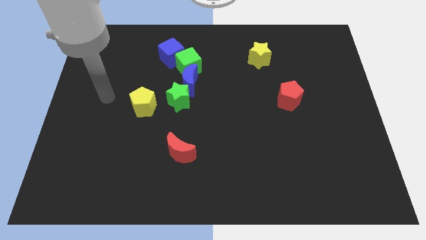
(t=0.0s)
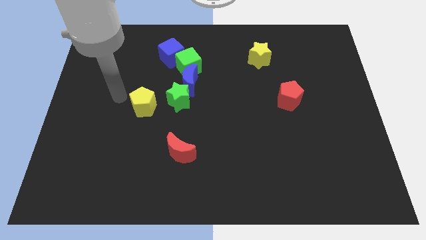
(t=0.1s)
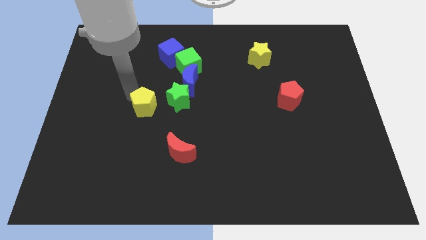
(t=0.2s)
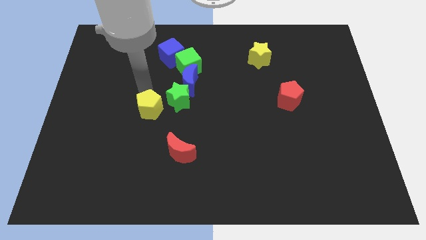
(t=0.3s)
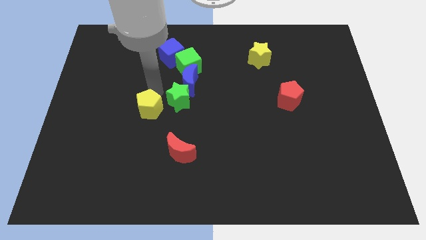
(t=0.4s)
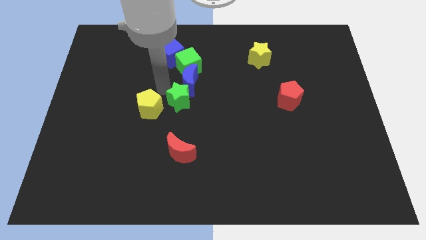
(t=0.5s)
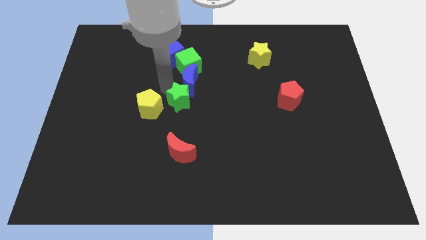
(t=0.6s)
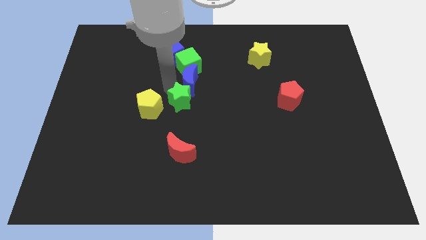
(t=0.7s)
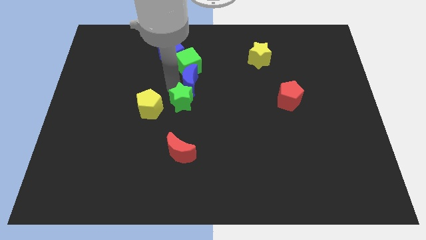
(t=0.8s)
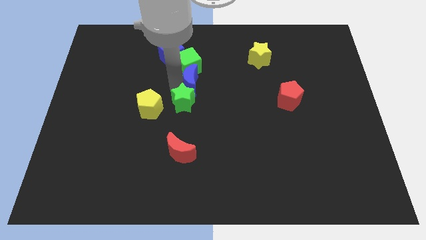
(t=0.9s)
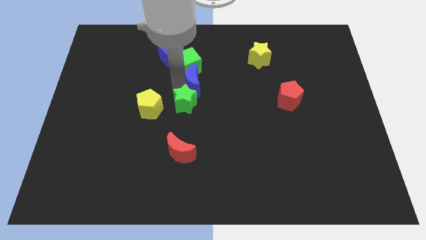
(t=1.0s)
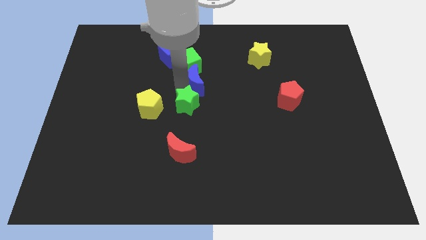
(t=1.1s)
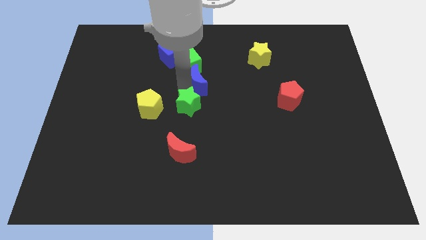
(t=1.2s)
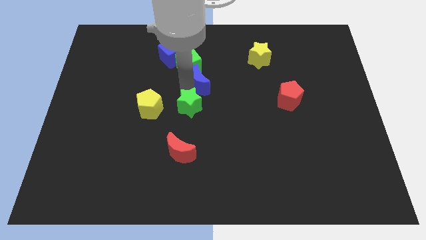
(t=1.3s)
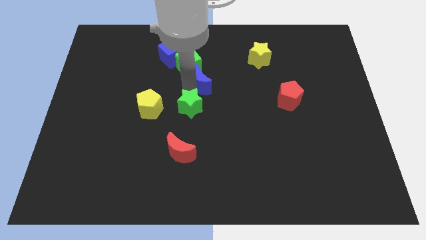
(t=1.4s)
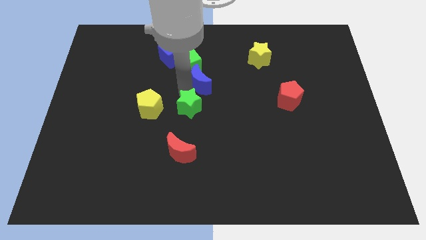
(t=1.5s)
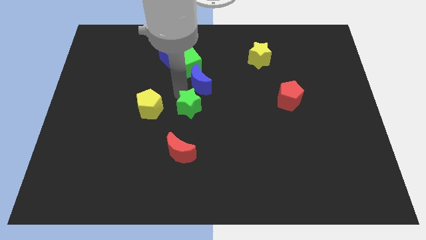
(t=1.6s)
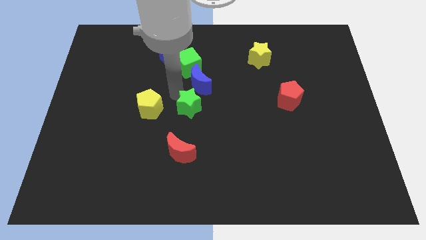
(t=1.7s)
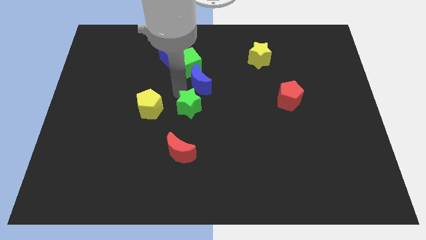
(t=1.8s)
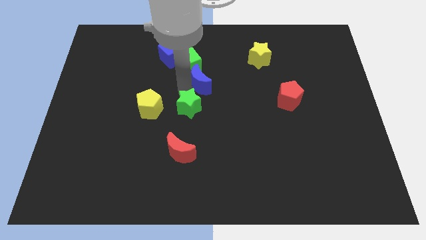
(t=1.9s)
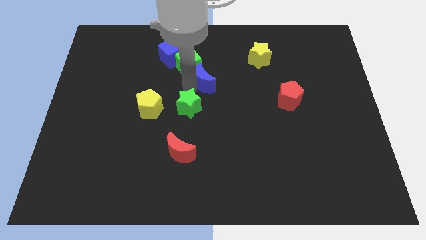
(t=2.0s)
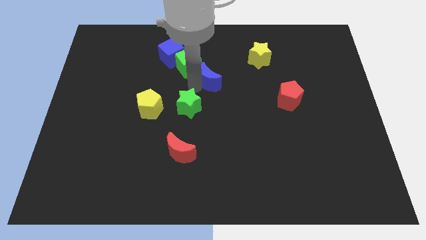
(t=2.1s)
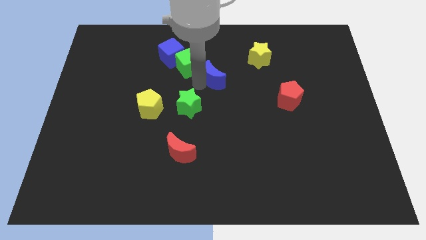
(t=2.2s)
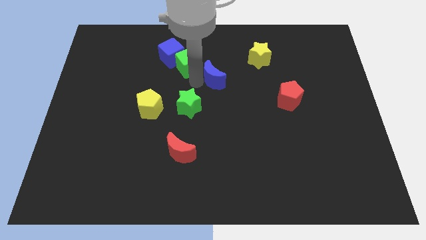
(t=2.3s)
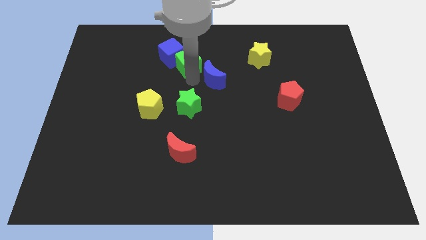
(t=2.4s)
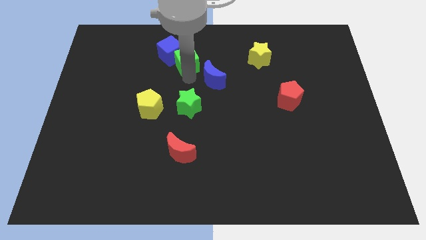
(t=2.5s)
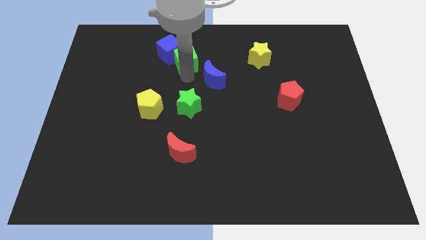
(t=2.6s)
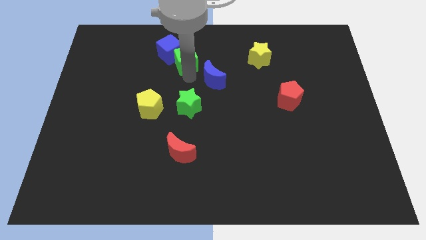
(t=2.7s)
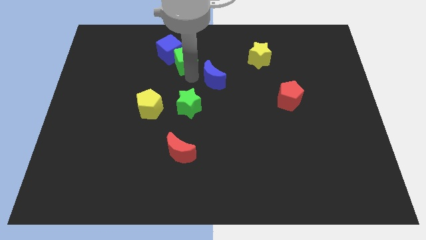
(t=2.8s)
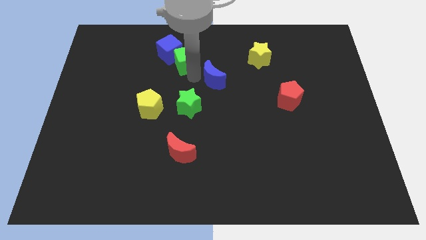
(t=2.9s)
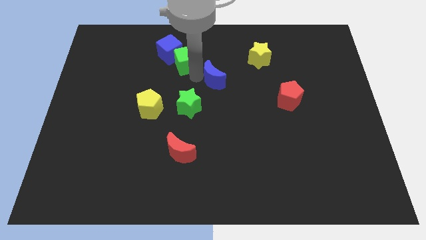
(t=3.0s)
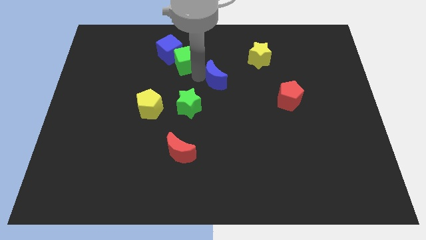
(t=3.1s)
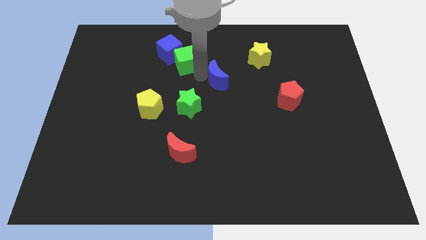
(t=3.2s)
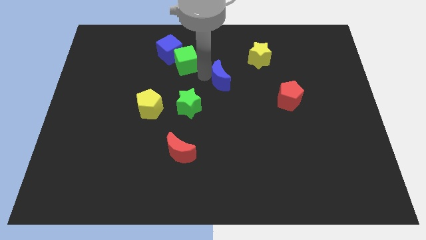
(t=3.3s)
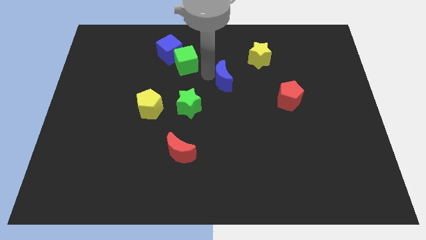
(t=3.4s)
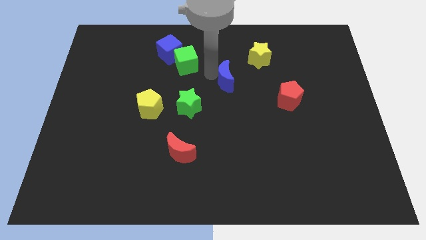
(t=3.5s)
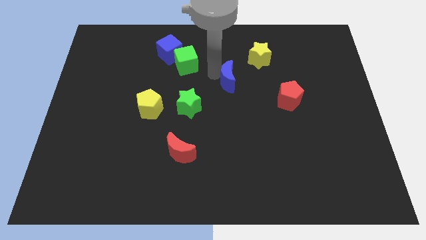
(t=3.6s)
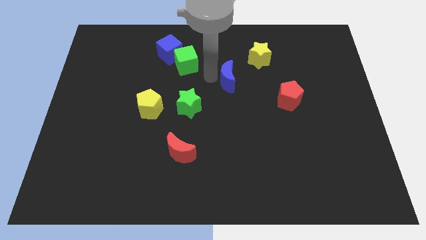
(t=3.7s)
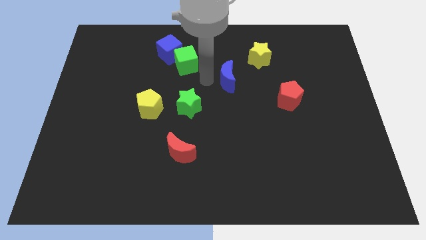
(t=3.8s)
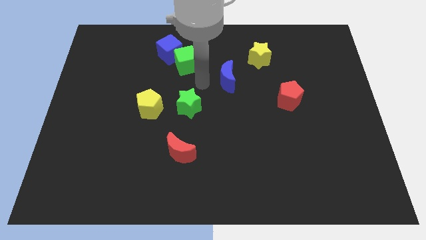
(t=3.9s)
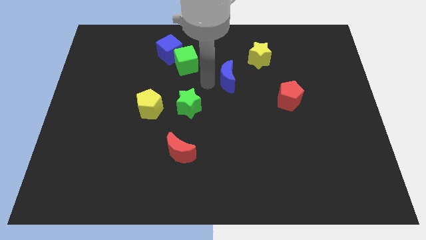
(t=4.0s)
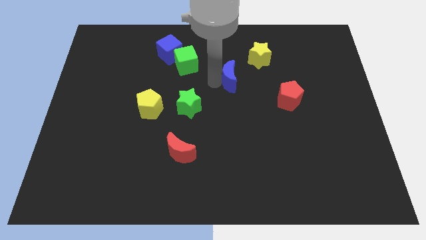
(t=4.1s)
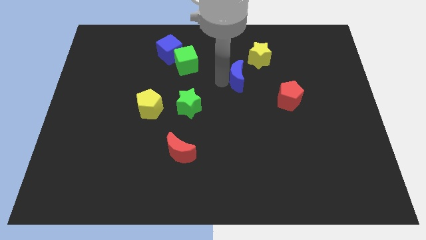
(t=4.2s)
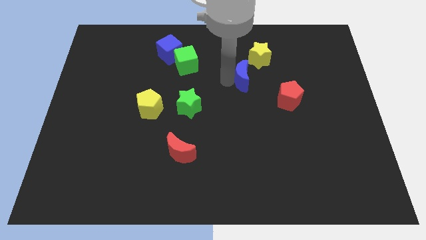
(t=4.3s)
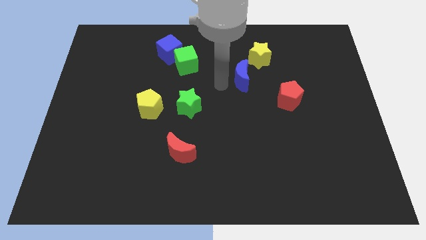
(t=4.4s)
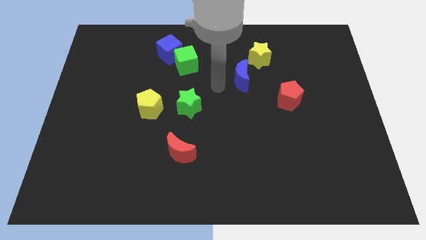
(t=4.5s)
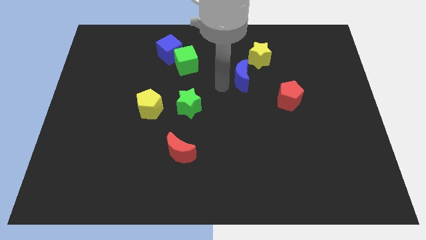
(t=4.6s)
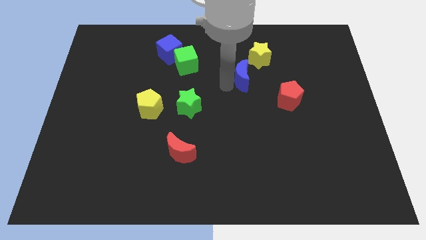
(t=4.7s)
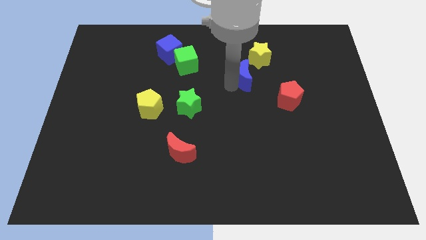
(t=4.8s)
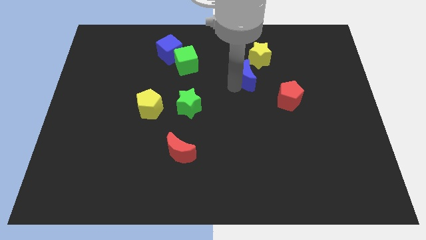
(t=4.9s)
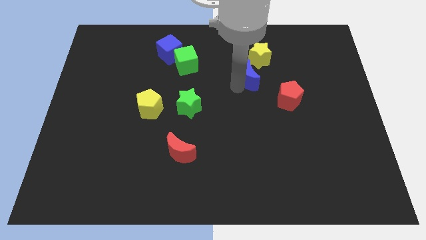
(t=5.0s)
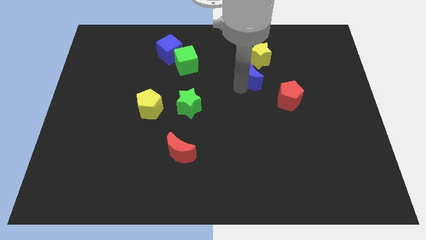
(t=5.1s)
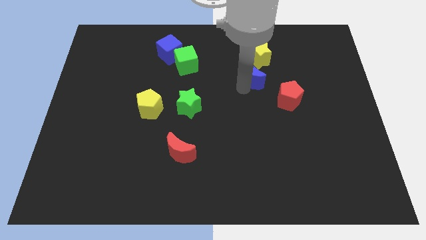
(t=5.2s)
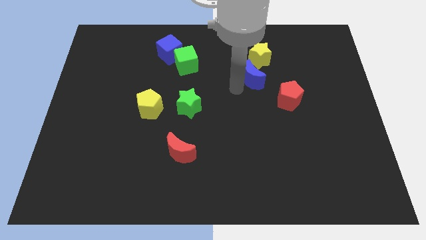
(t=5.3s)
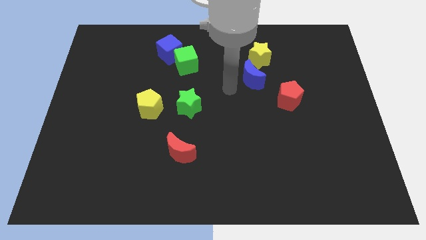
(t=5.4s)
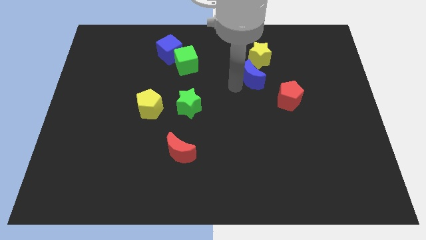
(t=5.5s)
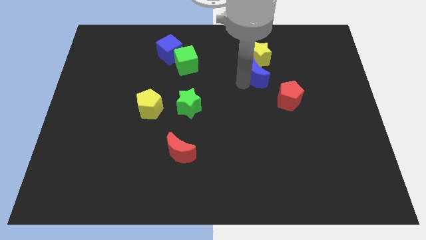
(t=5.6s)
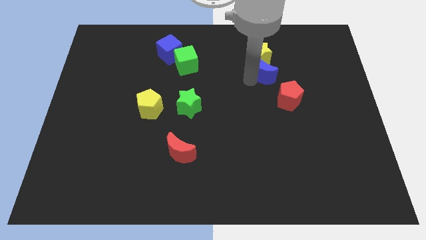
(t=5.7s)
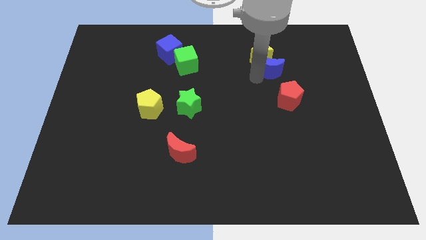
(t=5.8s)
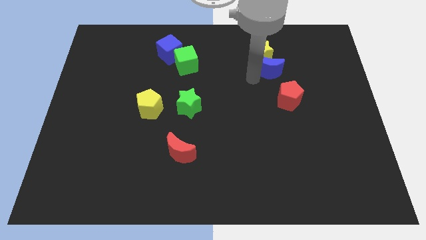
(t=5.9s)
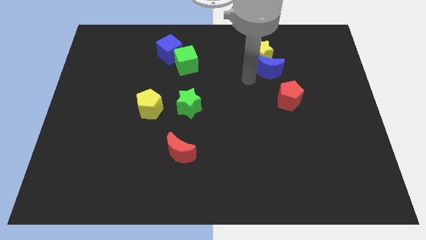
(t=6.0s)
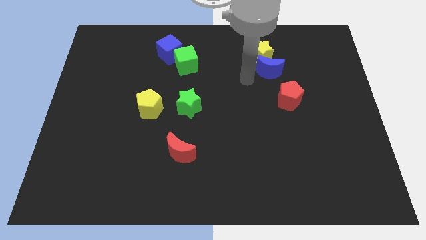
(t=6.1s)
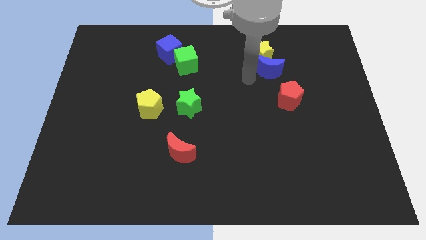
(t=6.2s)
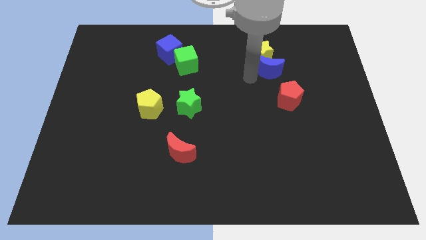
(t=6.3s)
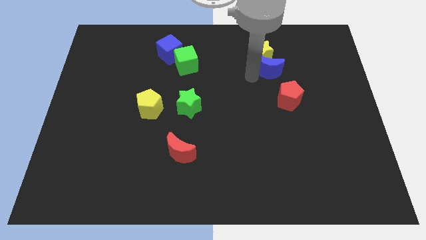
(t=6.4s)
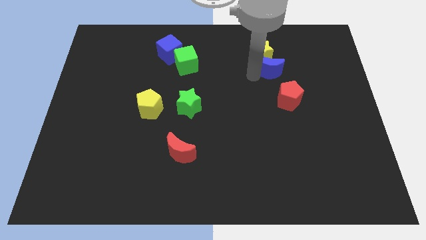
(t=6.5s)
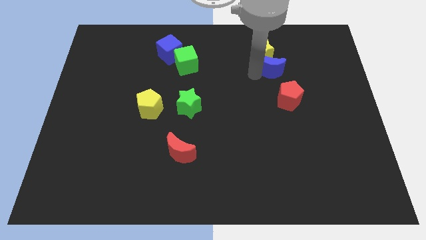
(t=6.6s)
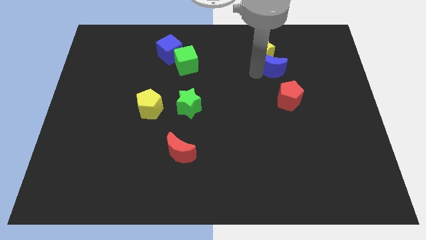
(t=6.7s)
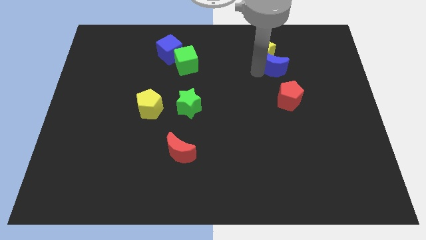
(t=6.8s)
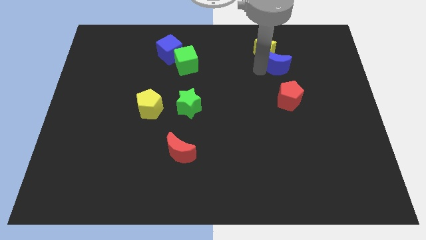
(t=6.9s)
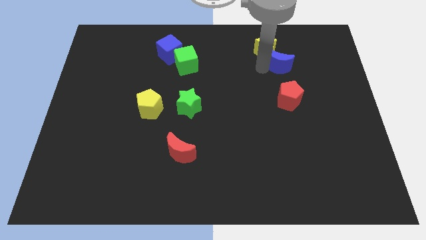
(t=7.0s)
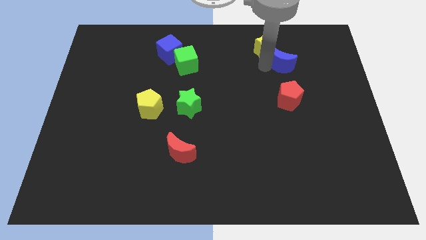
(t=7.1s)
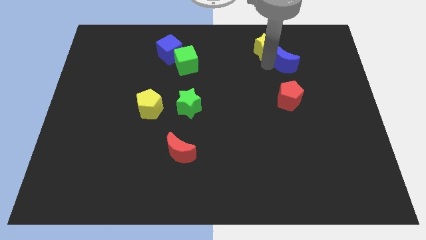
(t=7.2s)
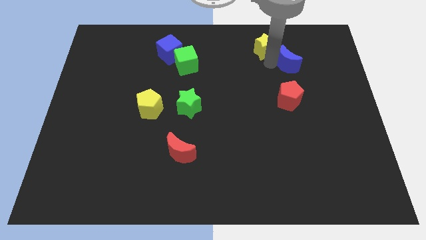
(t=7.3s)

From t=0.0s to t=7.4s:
move the blue moon to the right side of the yellow star
